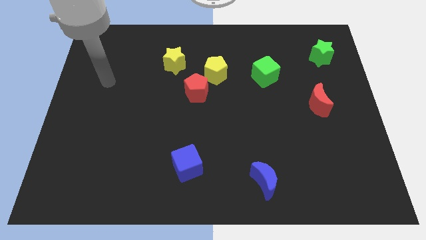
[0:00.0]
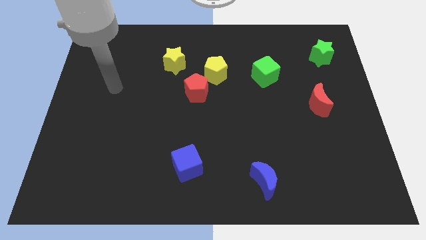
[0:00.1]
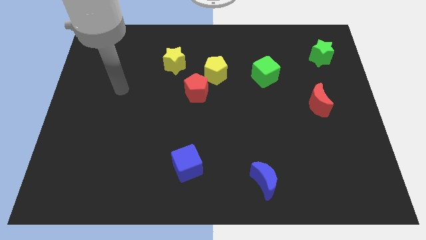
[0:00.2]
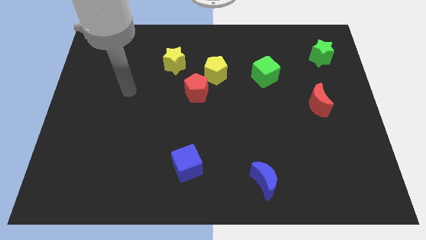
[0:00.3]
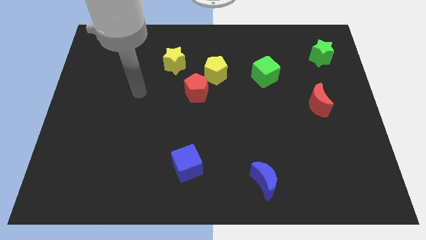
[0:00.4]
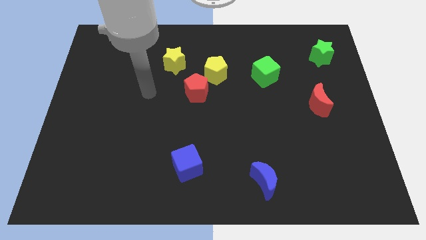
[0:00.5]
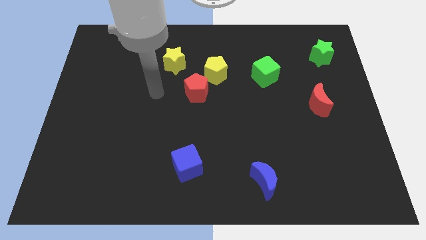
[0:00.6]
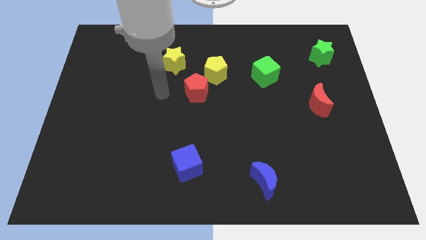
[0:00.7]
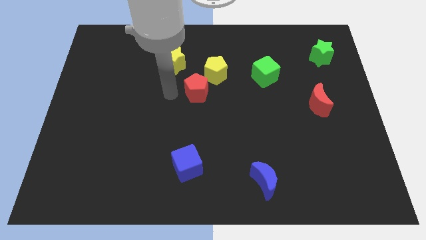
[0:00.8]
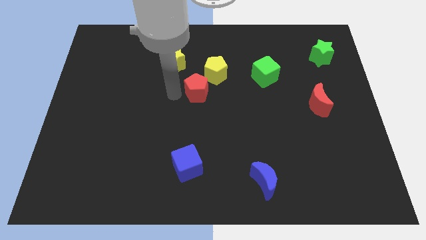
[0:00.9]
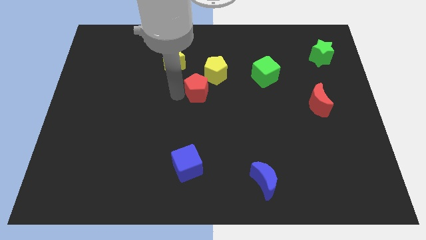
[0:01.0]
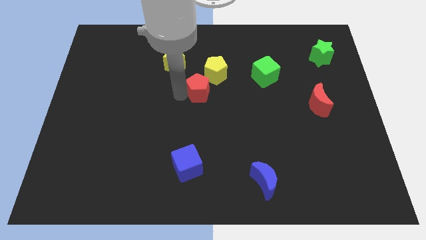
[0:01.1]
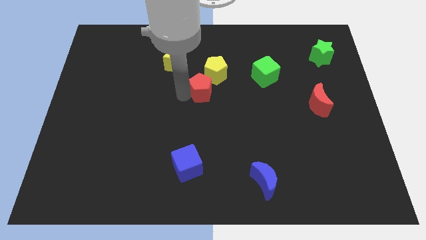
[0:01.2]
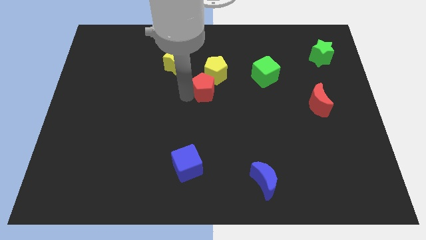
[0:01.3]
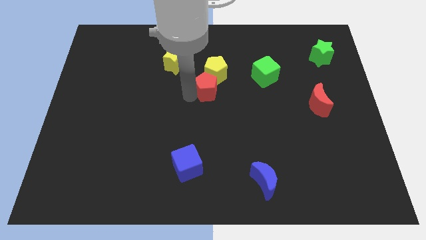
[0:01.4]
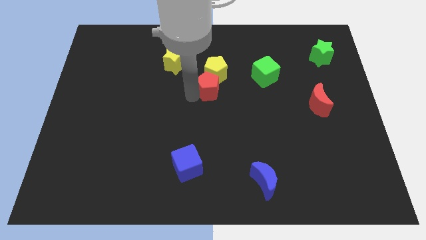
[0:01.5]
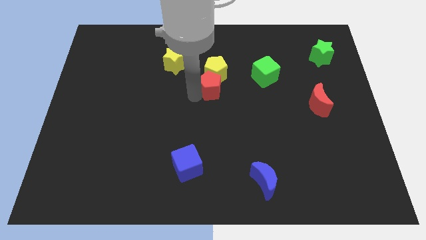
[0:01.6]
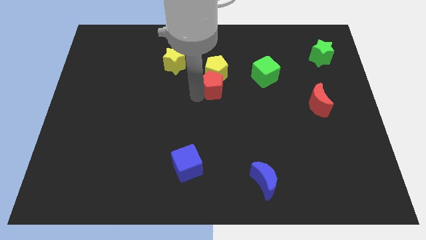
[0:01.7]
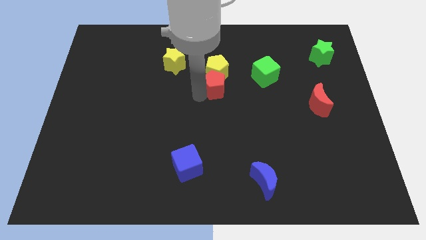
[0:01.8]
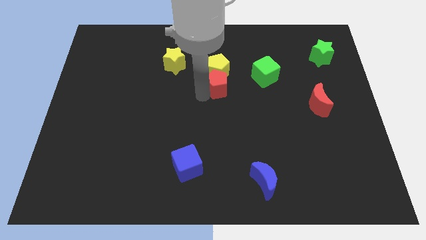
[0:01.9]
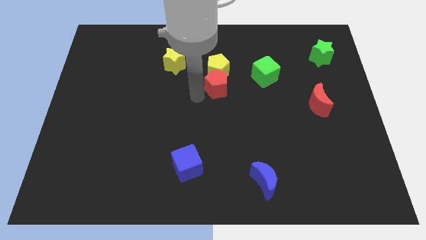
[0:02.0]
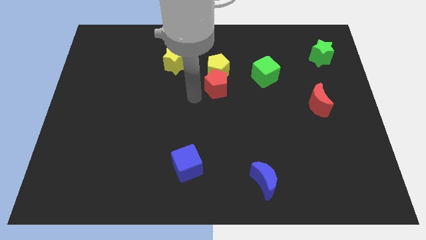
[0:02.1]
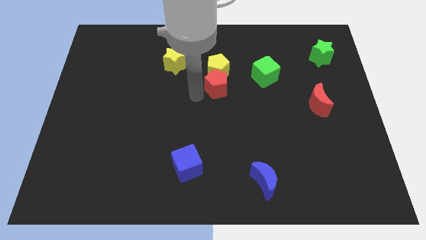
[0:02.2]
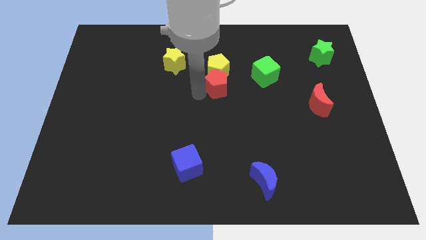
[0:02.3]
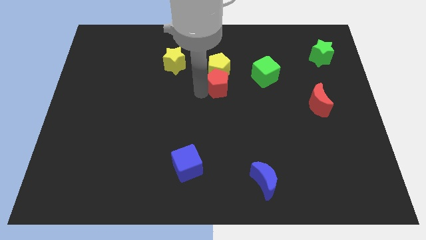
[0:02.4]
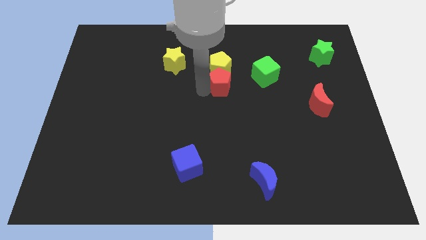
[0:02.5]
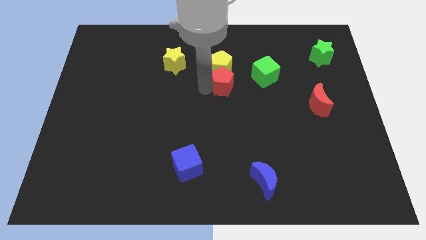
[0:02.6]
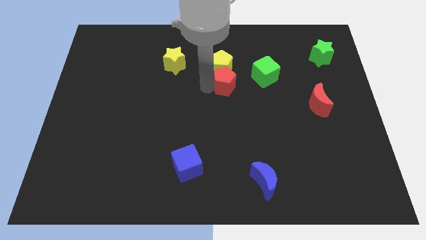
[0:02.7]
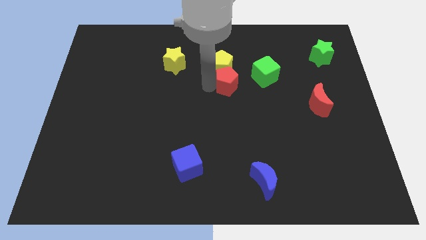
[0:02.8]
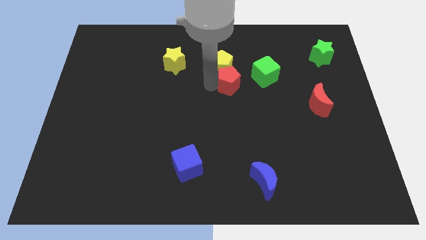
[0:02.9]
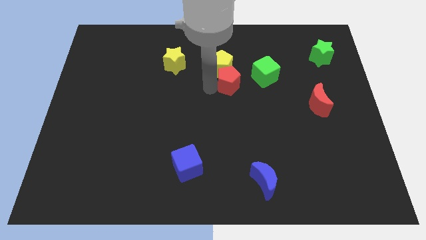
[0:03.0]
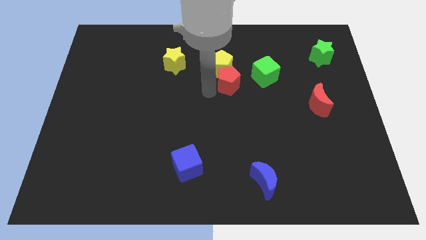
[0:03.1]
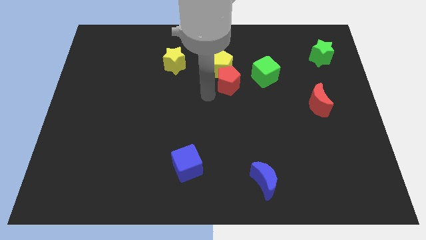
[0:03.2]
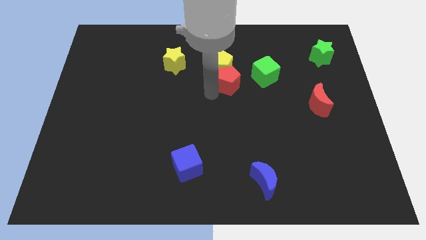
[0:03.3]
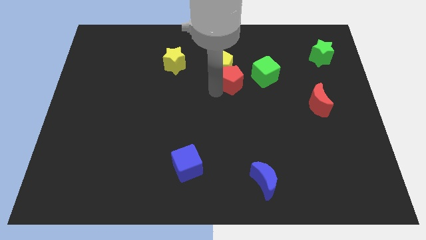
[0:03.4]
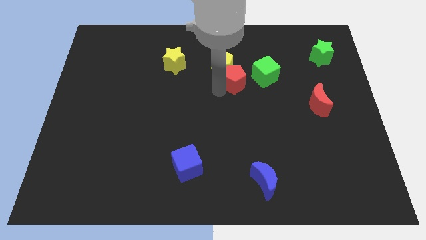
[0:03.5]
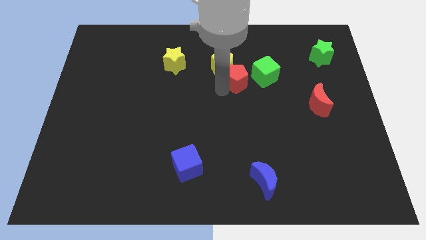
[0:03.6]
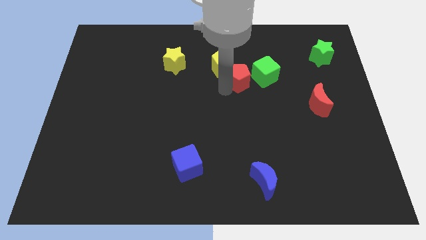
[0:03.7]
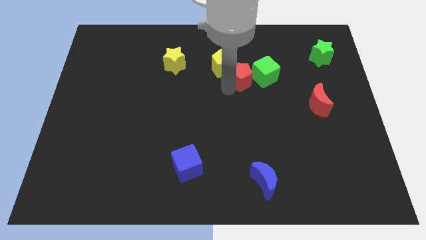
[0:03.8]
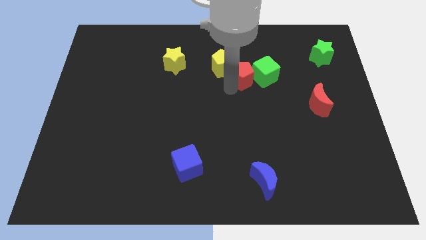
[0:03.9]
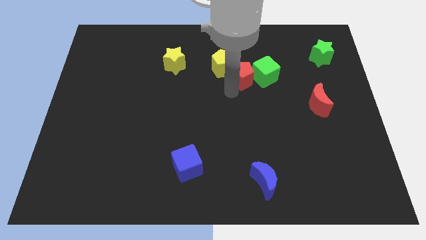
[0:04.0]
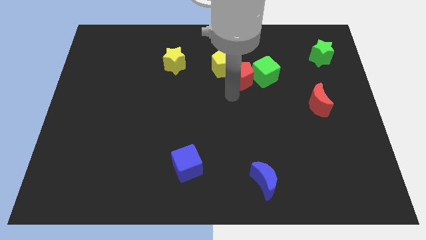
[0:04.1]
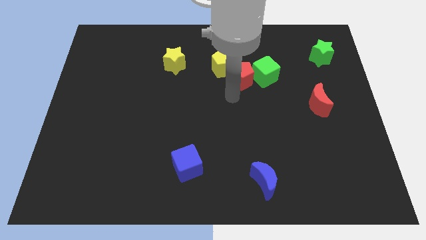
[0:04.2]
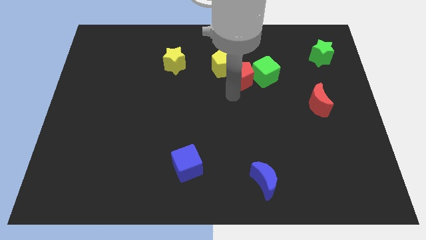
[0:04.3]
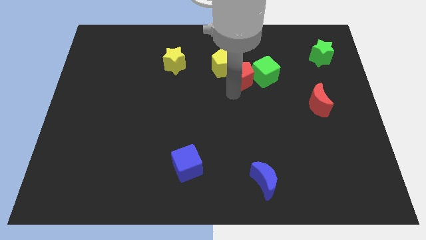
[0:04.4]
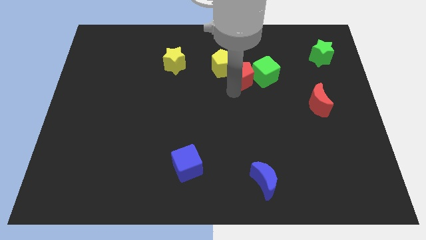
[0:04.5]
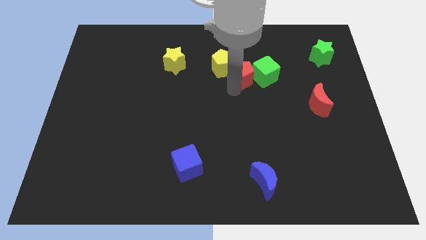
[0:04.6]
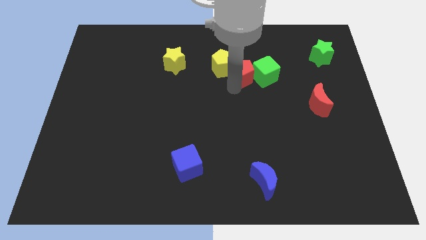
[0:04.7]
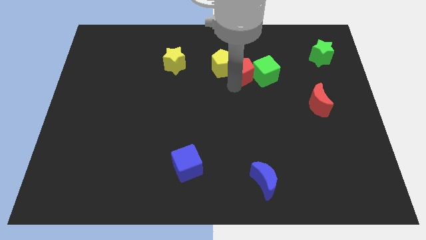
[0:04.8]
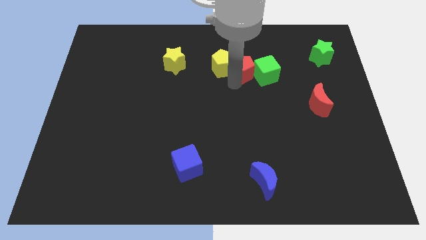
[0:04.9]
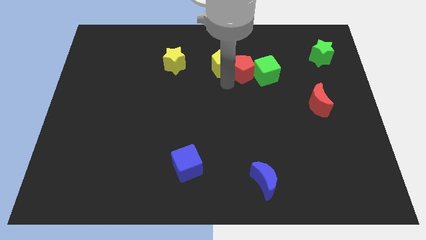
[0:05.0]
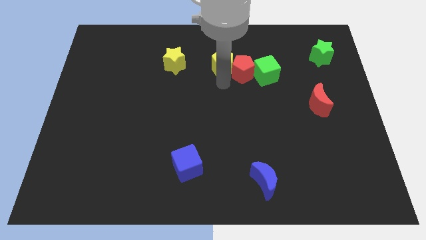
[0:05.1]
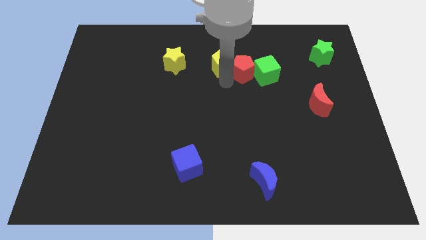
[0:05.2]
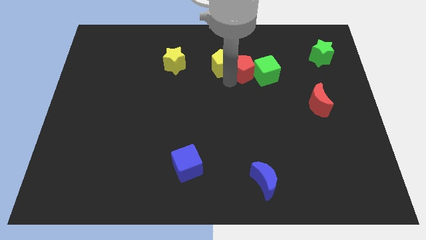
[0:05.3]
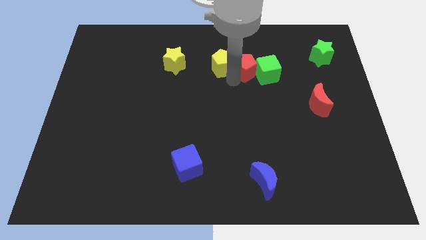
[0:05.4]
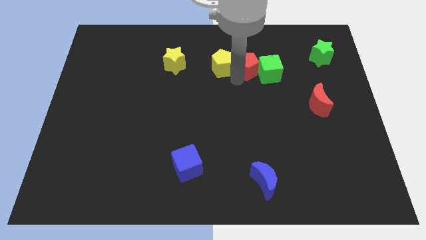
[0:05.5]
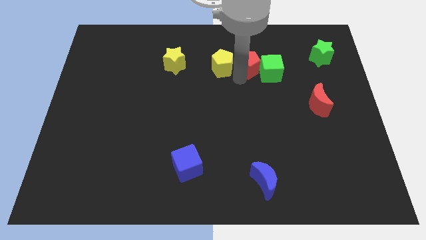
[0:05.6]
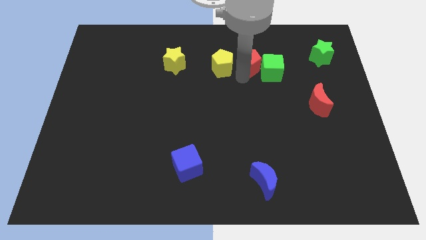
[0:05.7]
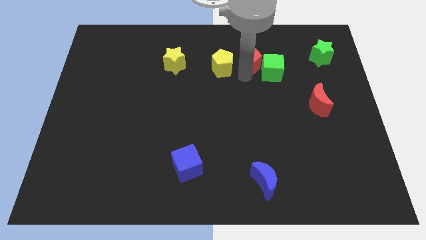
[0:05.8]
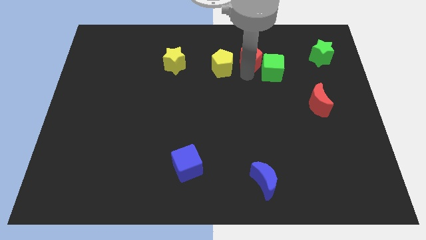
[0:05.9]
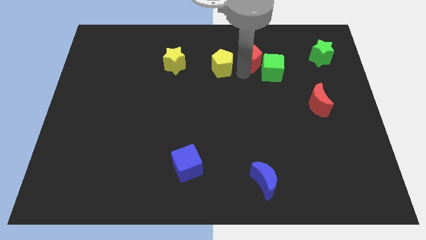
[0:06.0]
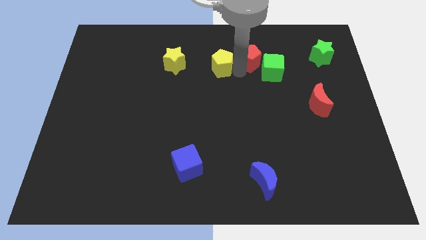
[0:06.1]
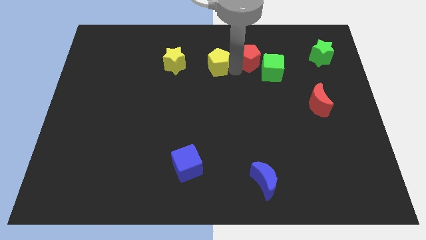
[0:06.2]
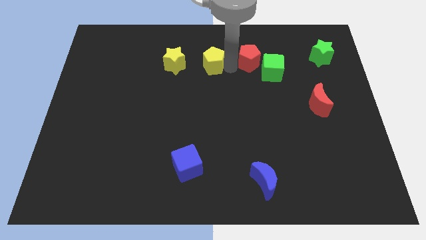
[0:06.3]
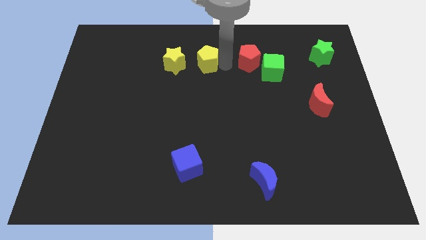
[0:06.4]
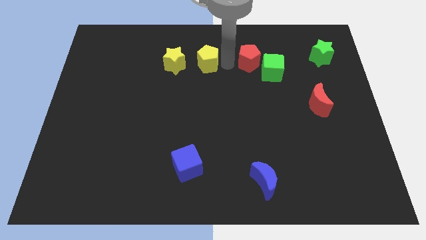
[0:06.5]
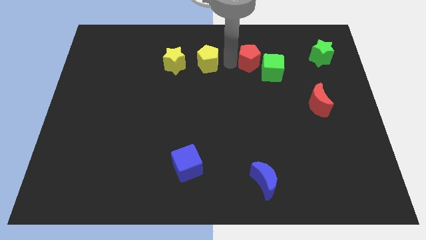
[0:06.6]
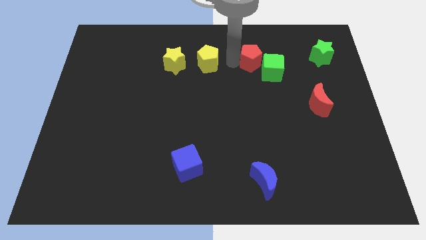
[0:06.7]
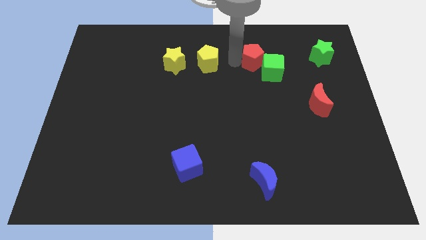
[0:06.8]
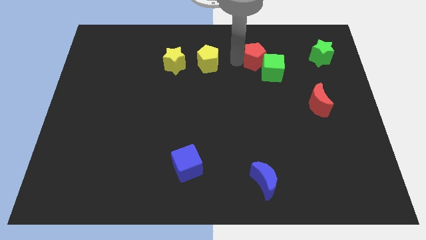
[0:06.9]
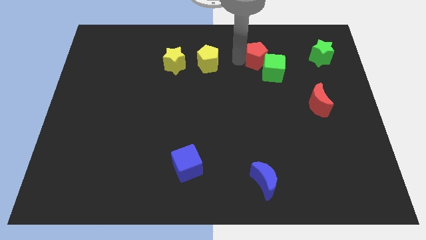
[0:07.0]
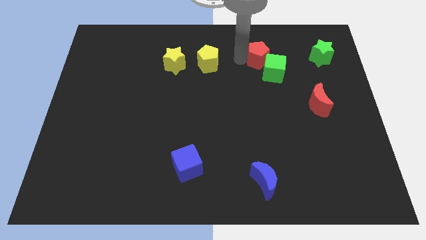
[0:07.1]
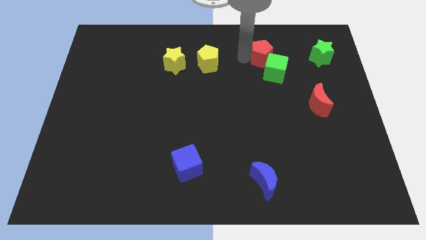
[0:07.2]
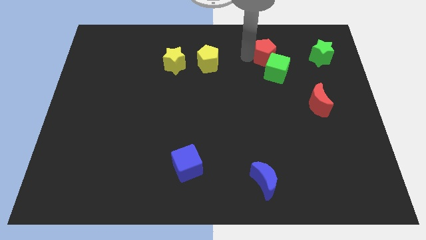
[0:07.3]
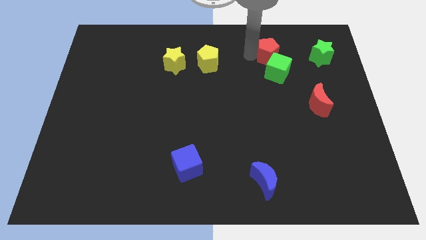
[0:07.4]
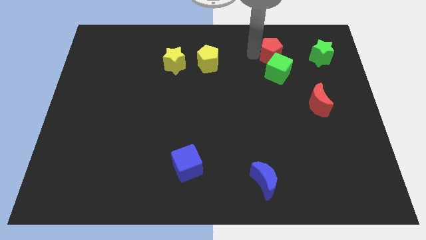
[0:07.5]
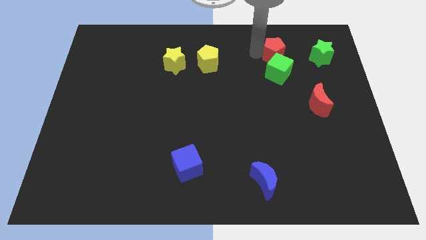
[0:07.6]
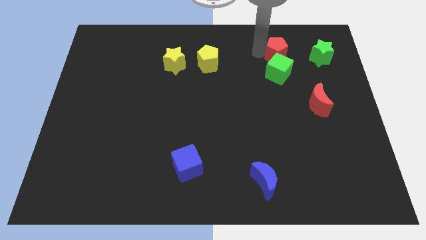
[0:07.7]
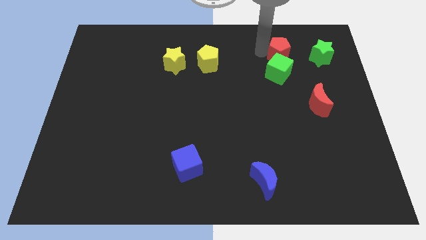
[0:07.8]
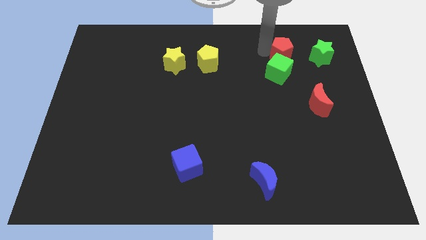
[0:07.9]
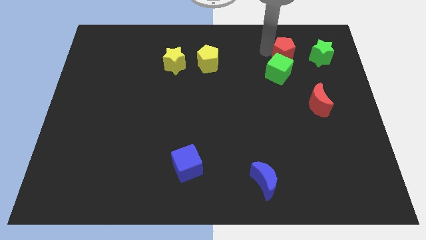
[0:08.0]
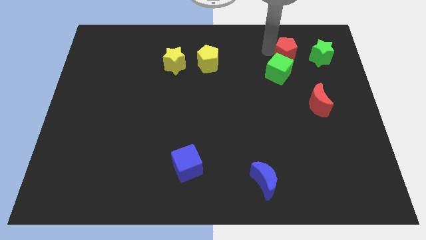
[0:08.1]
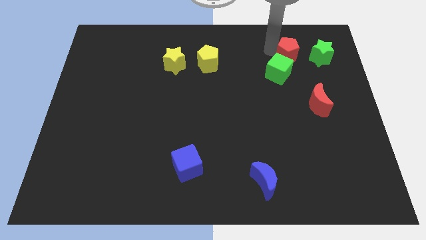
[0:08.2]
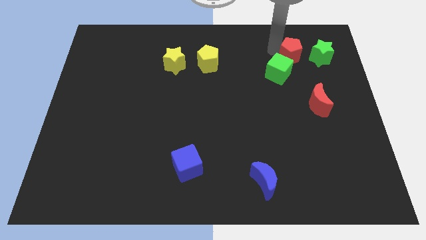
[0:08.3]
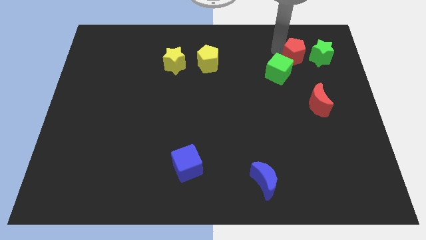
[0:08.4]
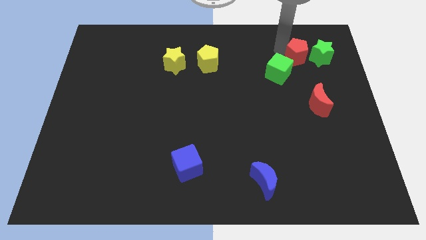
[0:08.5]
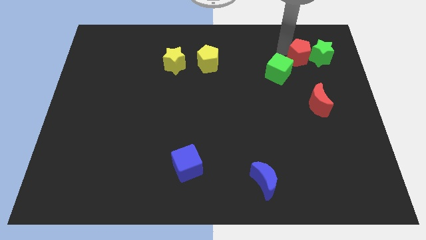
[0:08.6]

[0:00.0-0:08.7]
put the red pentagon to the green star
